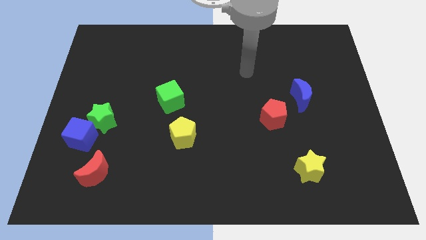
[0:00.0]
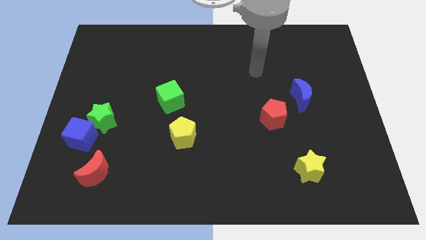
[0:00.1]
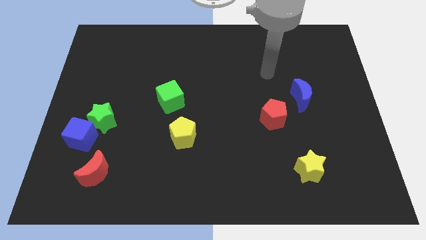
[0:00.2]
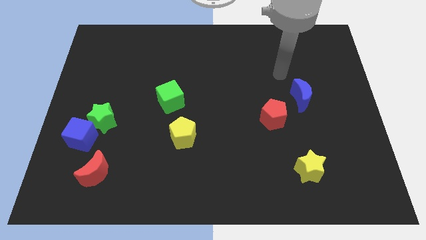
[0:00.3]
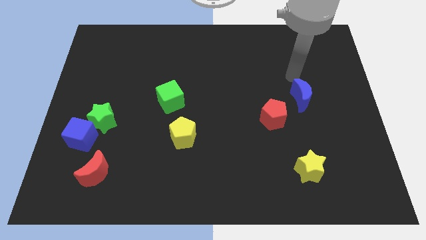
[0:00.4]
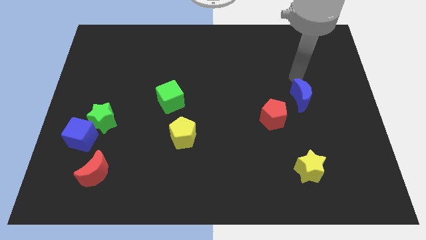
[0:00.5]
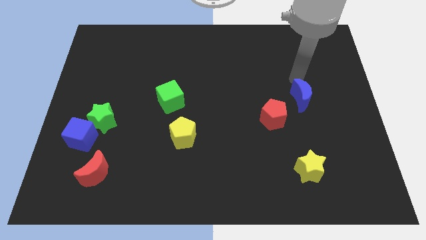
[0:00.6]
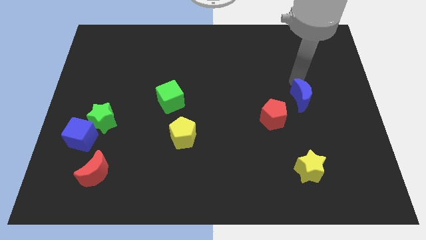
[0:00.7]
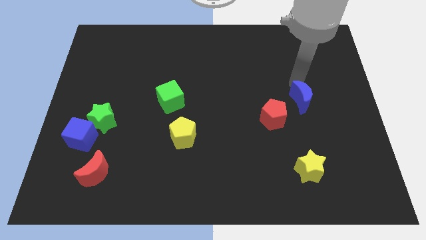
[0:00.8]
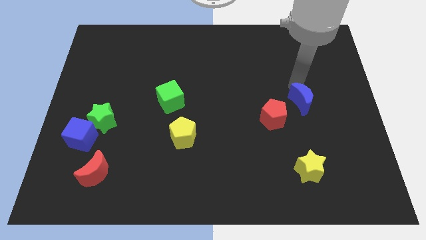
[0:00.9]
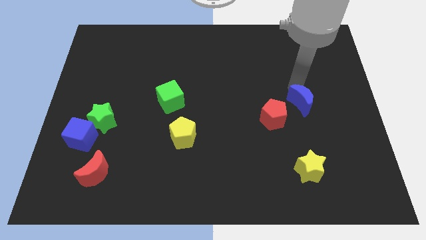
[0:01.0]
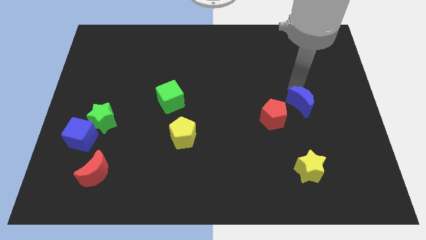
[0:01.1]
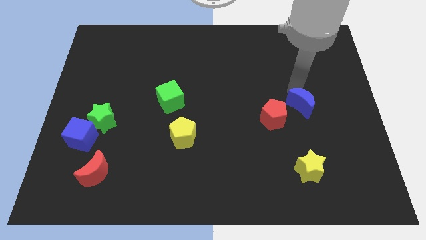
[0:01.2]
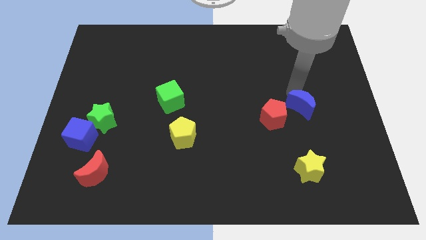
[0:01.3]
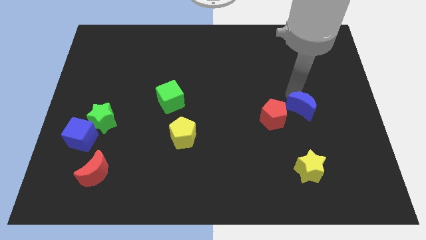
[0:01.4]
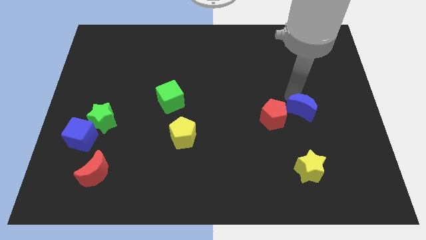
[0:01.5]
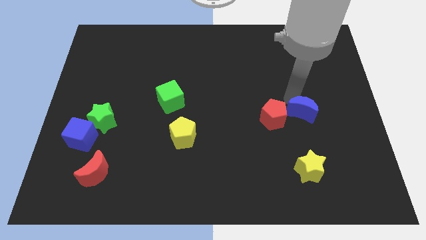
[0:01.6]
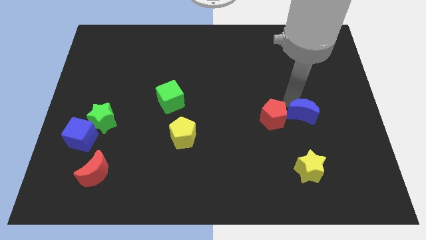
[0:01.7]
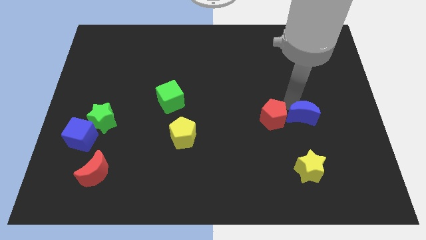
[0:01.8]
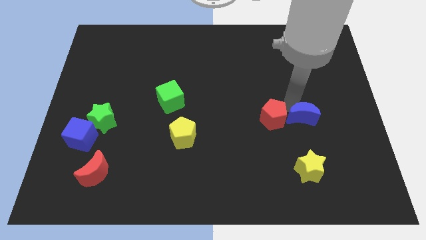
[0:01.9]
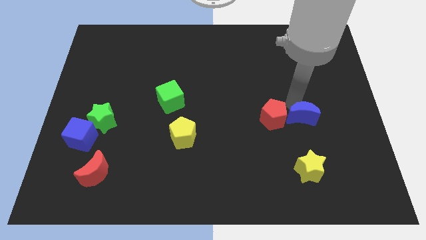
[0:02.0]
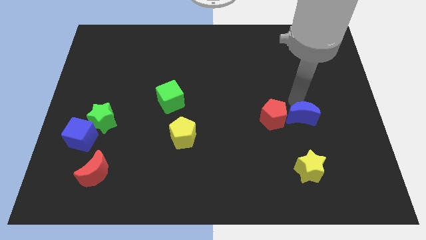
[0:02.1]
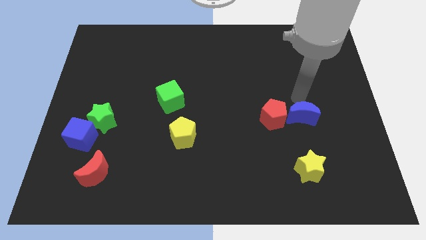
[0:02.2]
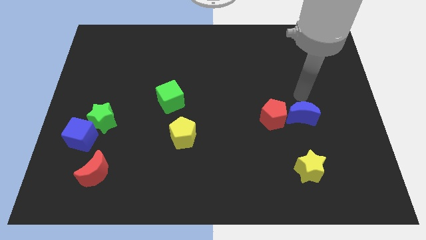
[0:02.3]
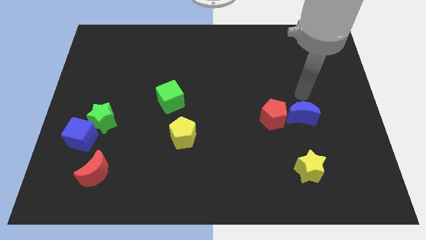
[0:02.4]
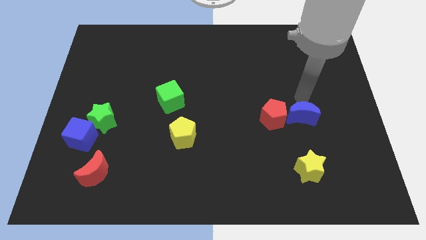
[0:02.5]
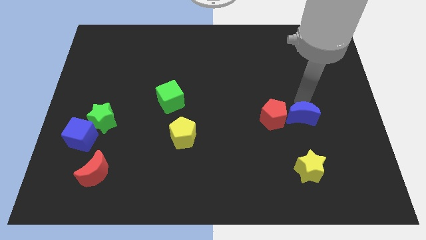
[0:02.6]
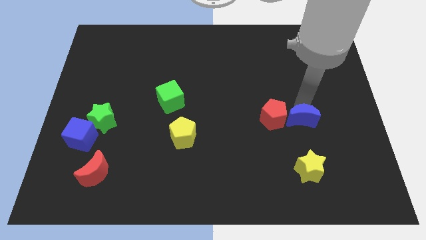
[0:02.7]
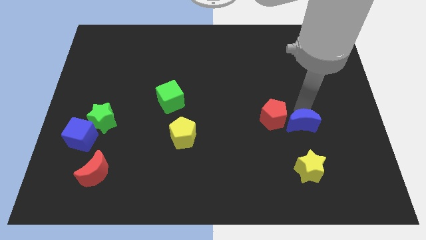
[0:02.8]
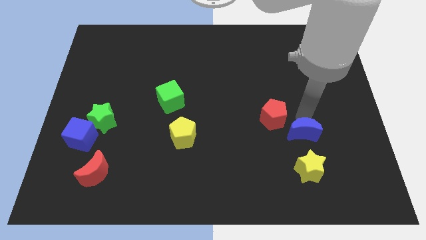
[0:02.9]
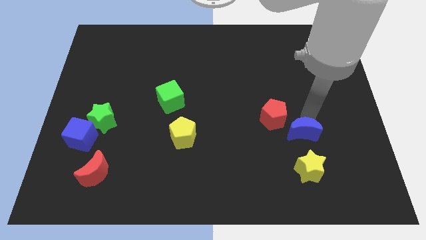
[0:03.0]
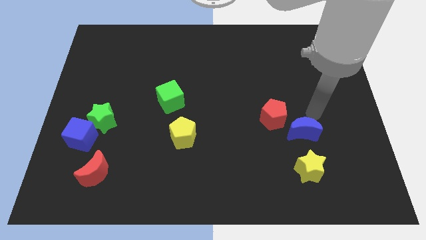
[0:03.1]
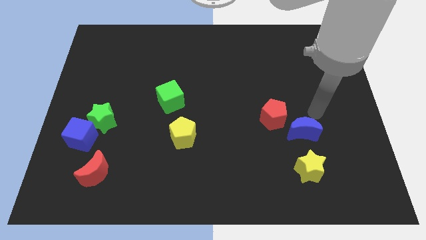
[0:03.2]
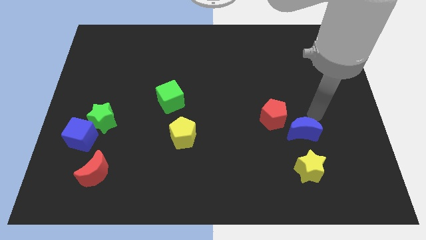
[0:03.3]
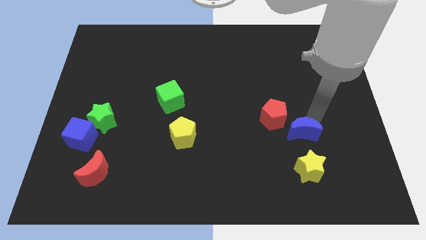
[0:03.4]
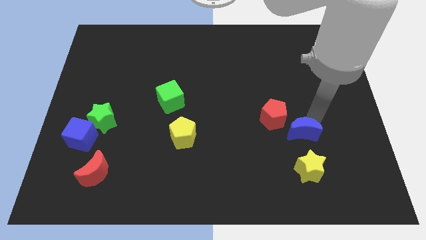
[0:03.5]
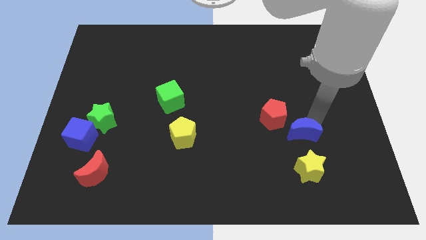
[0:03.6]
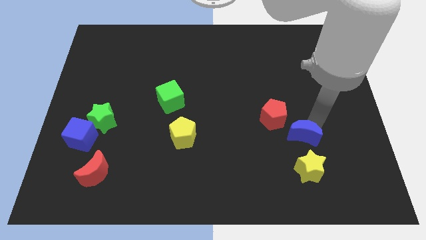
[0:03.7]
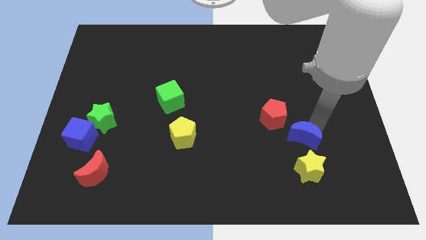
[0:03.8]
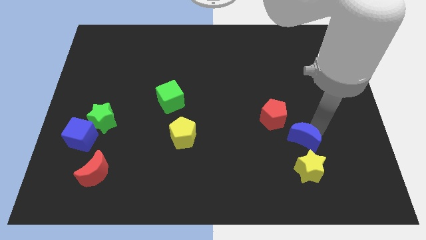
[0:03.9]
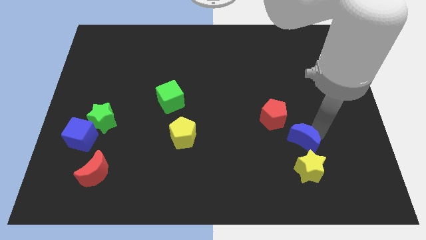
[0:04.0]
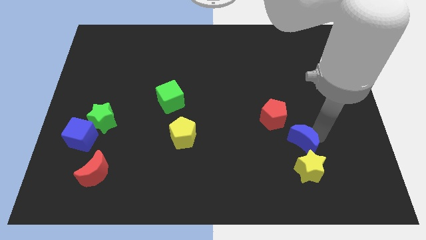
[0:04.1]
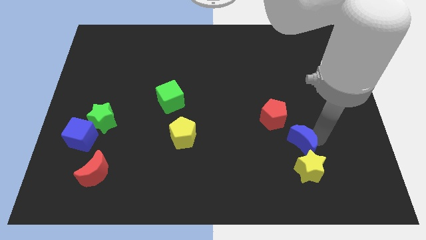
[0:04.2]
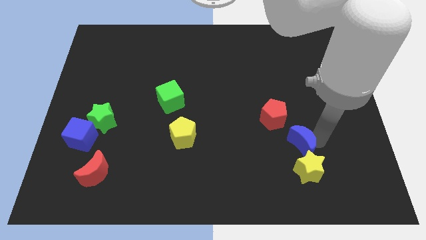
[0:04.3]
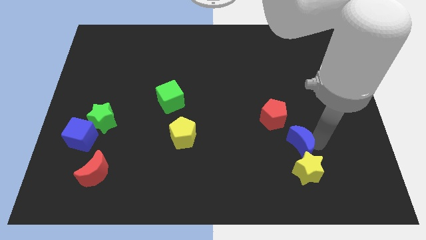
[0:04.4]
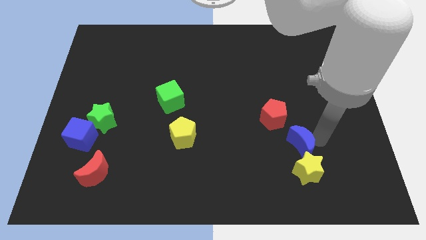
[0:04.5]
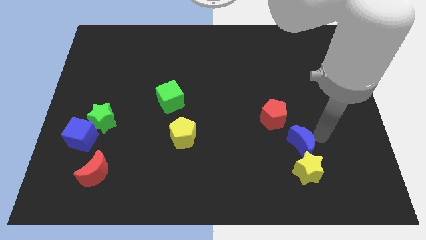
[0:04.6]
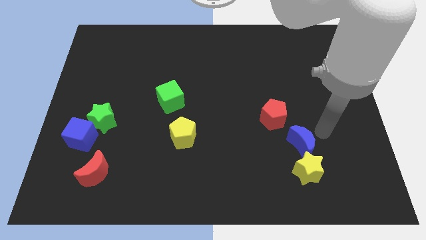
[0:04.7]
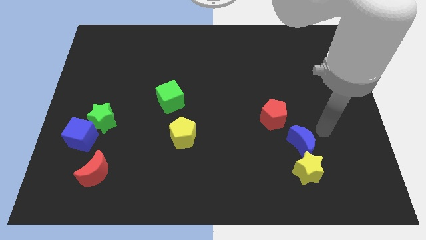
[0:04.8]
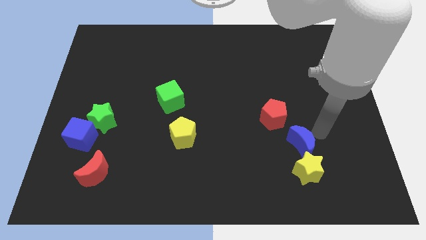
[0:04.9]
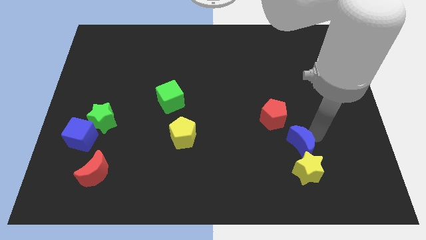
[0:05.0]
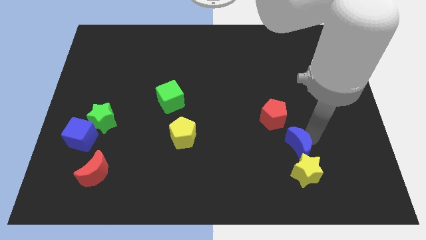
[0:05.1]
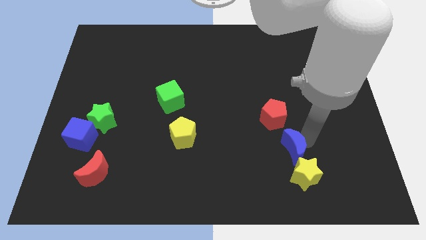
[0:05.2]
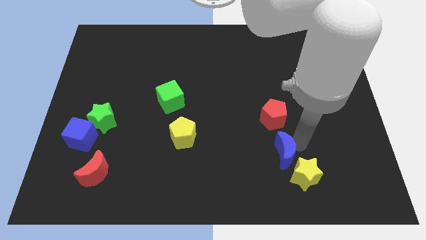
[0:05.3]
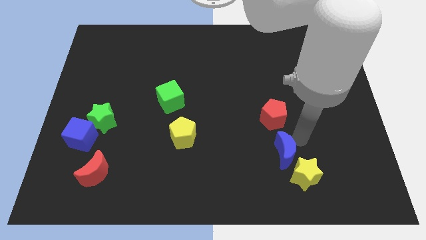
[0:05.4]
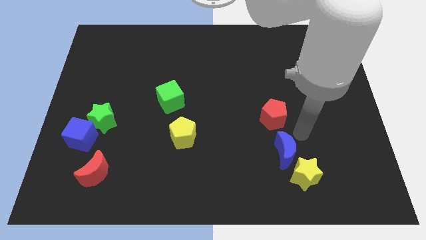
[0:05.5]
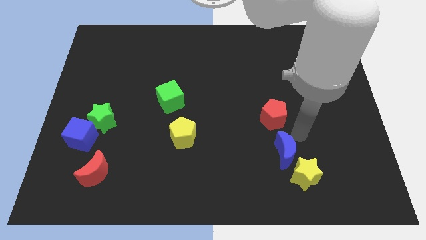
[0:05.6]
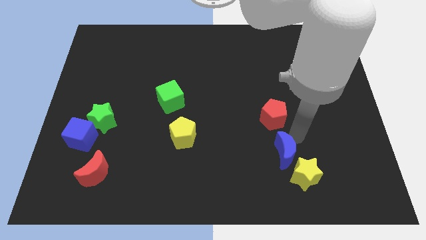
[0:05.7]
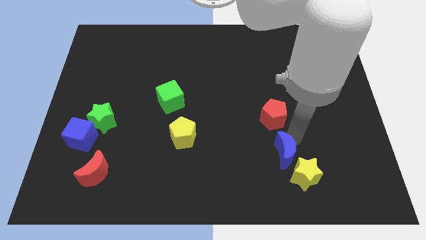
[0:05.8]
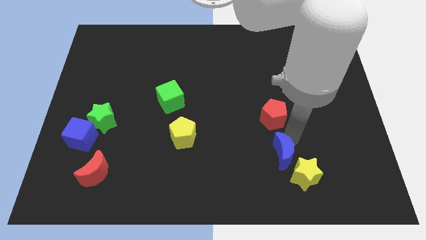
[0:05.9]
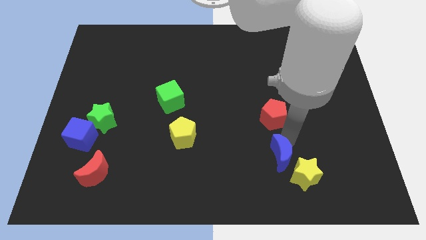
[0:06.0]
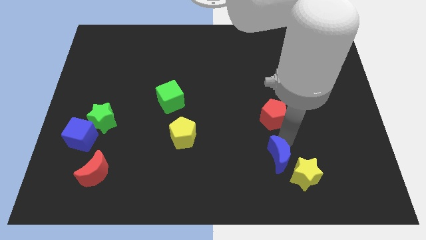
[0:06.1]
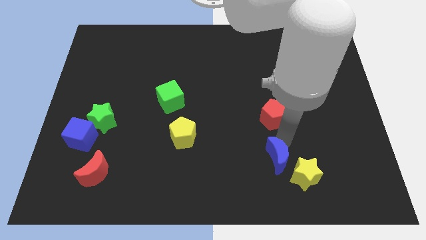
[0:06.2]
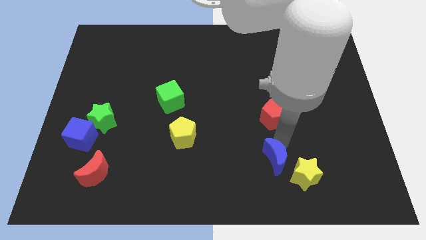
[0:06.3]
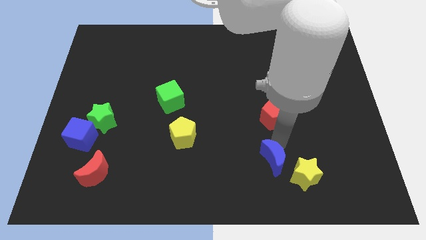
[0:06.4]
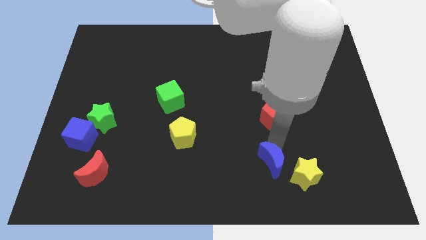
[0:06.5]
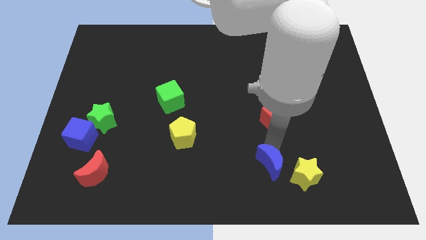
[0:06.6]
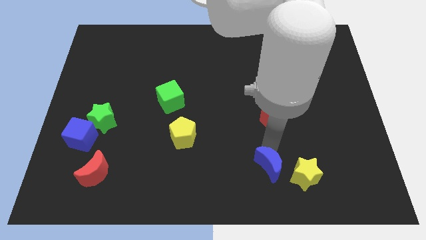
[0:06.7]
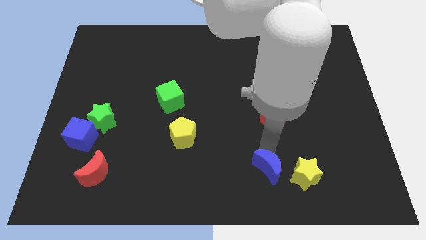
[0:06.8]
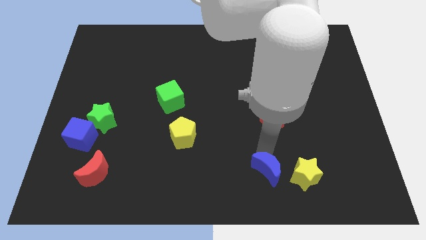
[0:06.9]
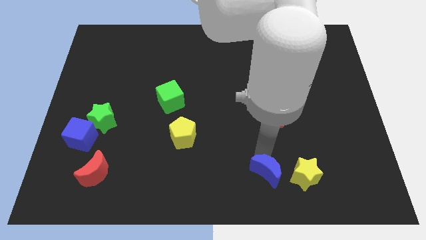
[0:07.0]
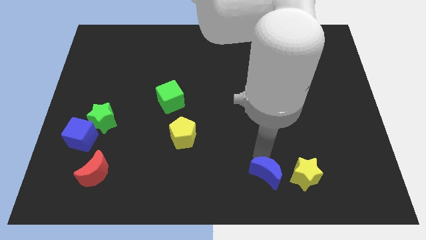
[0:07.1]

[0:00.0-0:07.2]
move the blue moon to the bottom side
